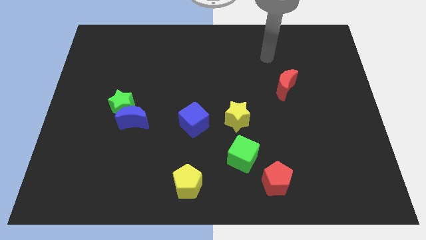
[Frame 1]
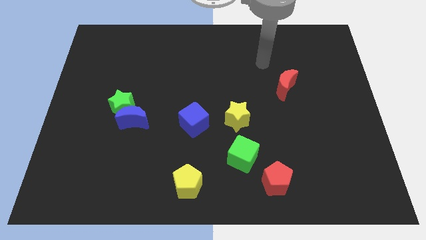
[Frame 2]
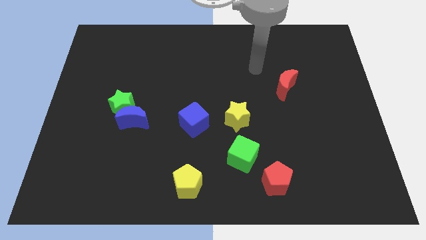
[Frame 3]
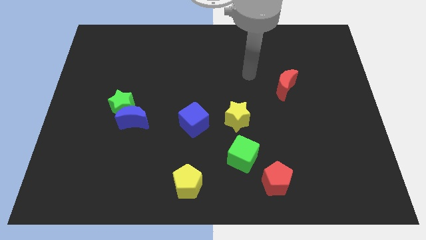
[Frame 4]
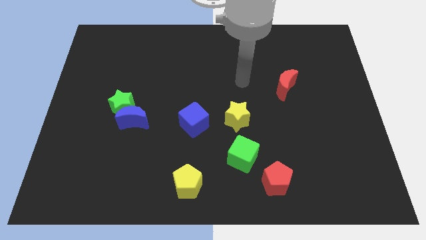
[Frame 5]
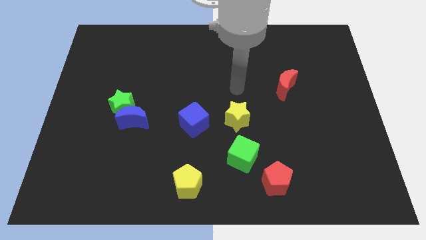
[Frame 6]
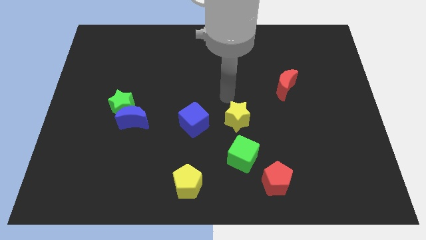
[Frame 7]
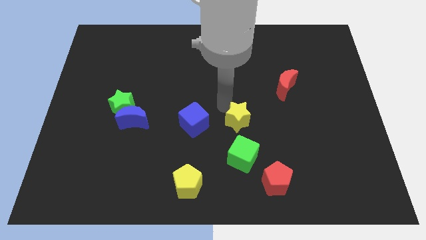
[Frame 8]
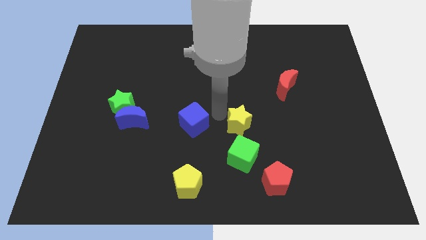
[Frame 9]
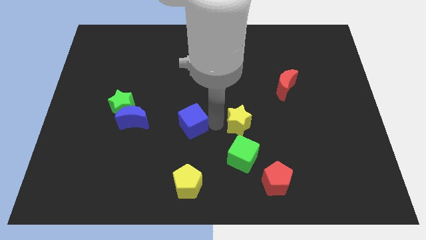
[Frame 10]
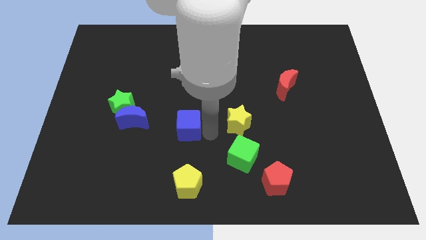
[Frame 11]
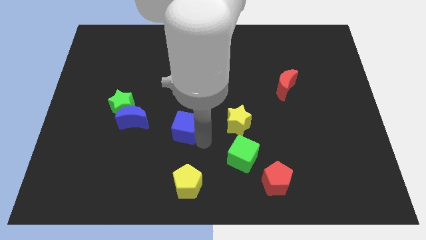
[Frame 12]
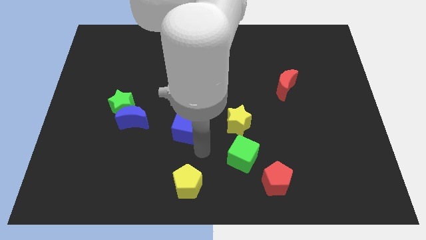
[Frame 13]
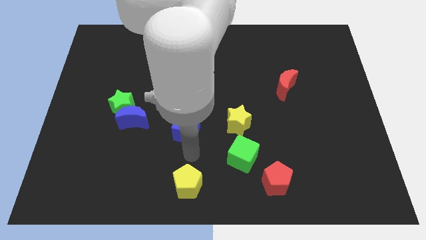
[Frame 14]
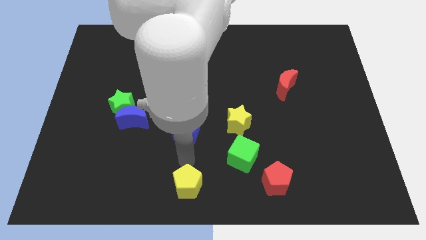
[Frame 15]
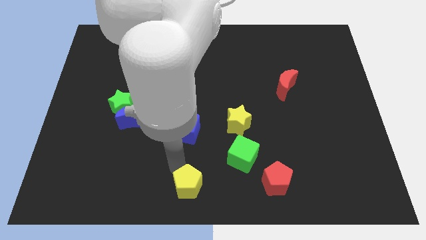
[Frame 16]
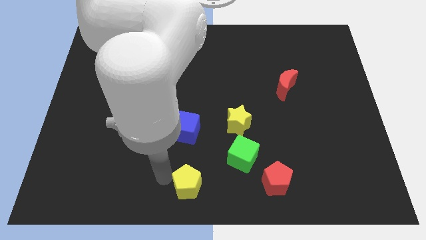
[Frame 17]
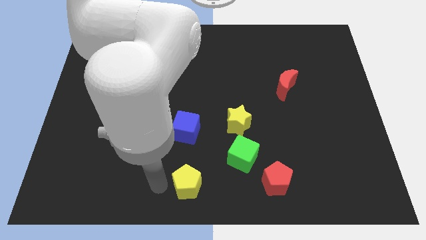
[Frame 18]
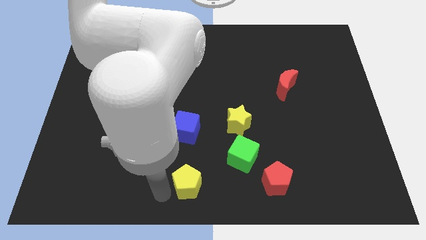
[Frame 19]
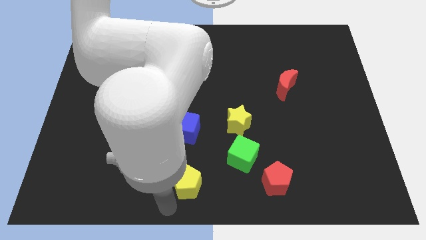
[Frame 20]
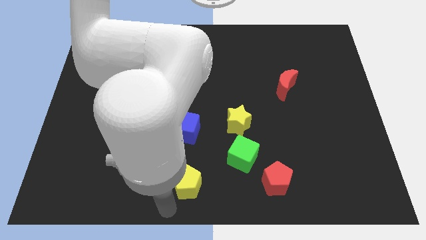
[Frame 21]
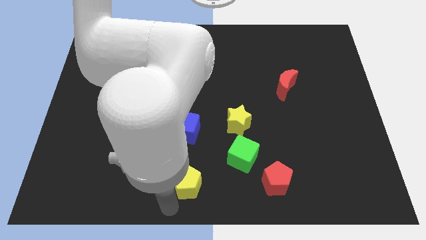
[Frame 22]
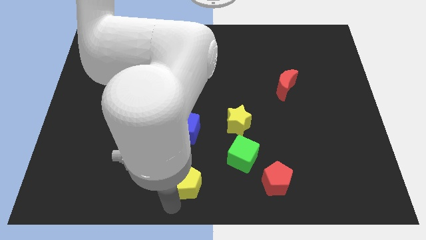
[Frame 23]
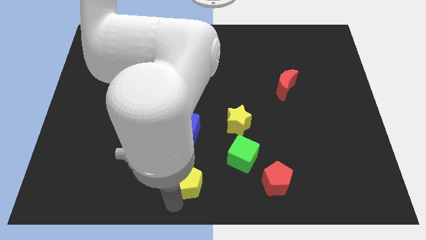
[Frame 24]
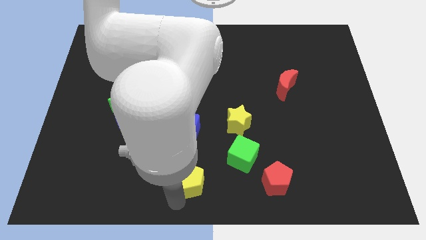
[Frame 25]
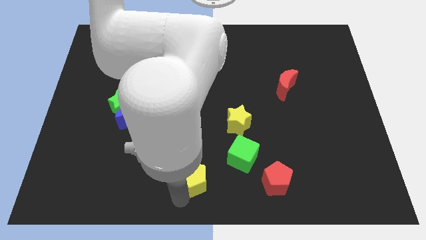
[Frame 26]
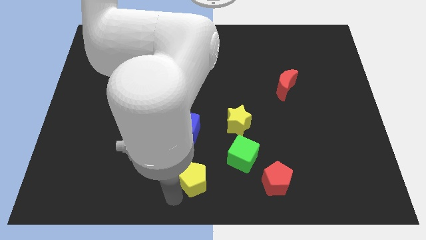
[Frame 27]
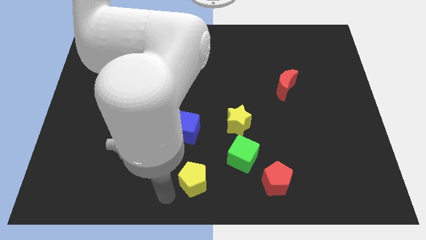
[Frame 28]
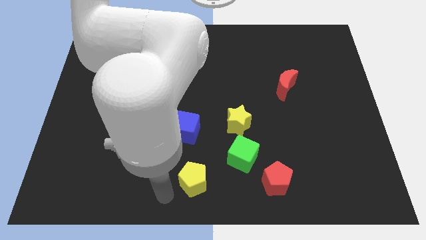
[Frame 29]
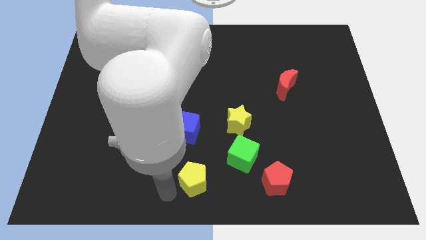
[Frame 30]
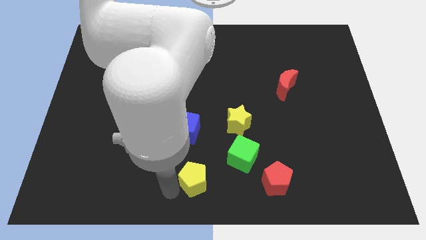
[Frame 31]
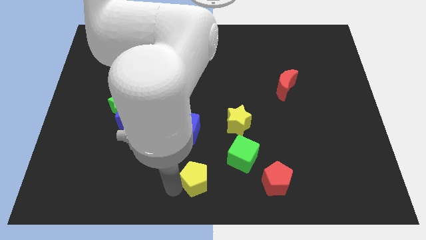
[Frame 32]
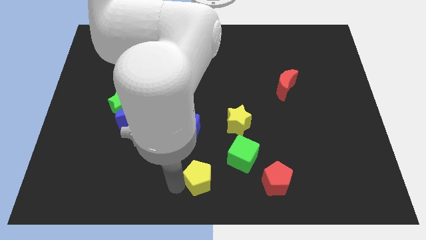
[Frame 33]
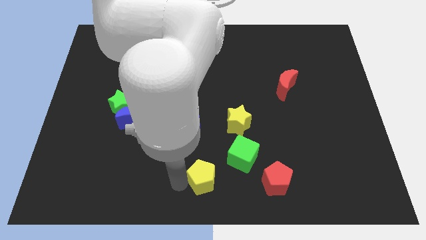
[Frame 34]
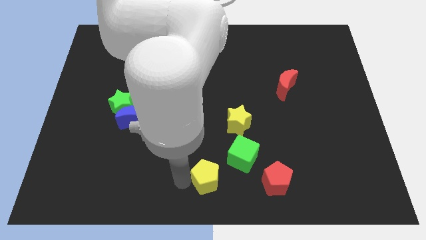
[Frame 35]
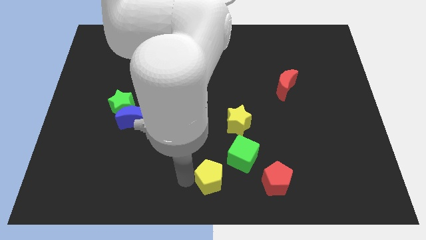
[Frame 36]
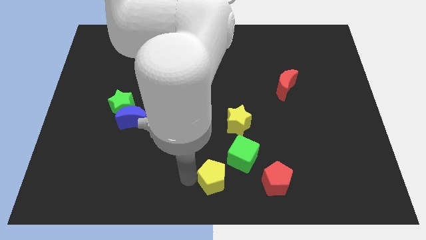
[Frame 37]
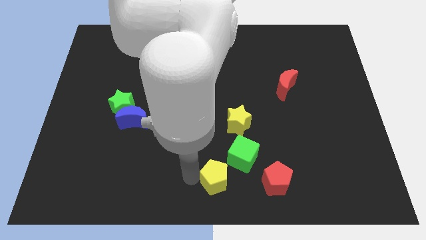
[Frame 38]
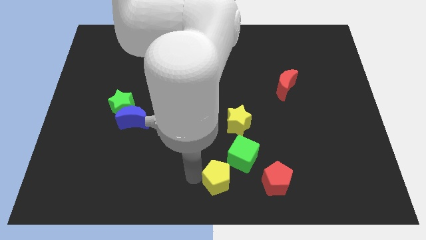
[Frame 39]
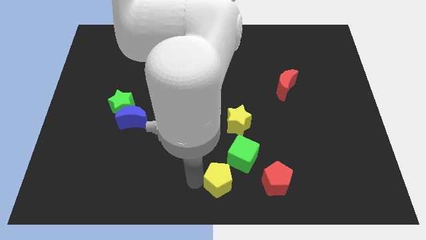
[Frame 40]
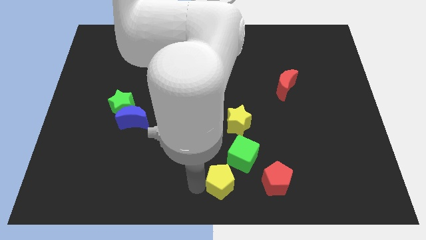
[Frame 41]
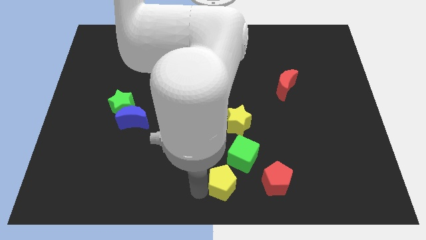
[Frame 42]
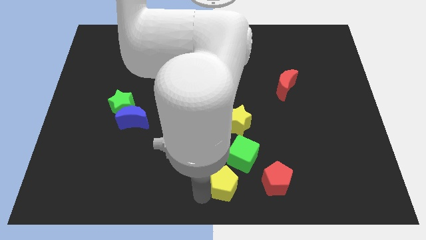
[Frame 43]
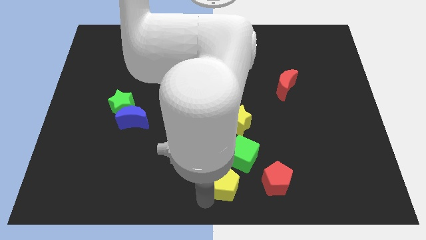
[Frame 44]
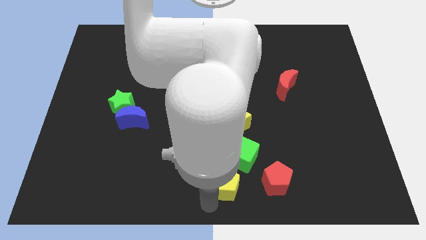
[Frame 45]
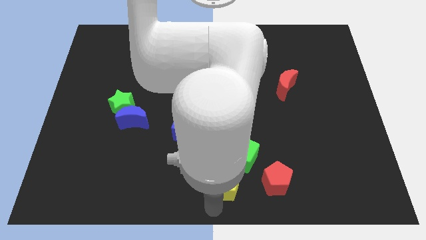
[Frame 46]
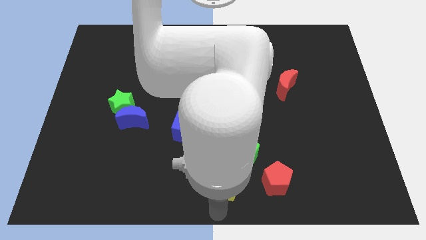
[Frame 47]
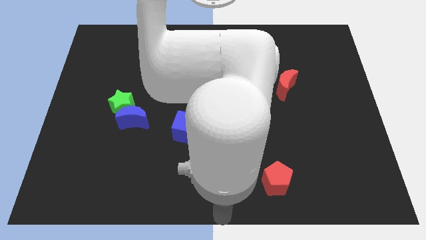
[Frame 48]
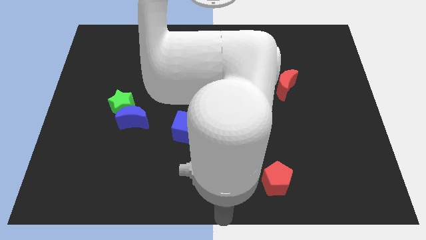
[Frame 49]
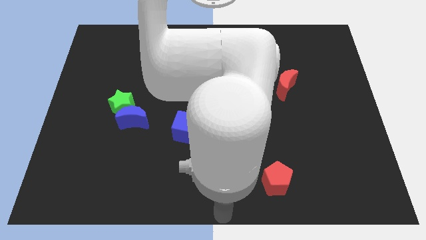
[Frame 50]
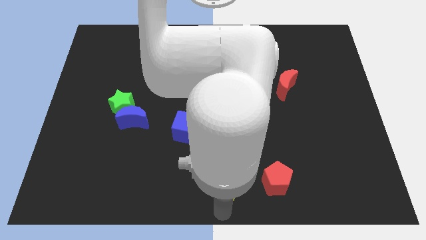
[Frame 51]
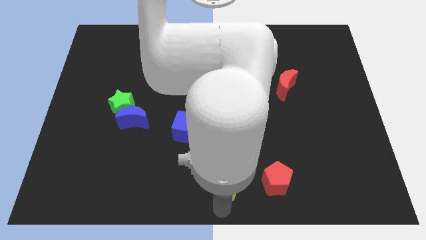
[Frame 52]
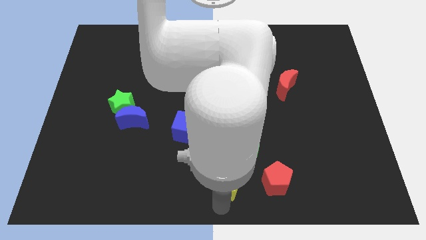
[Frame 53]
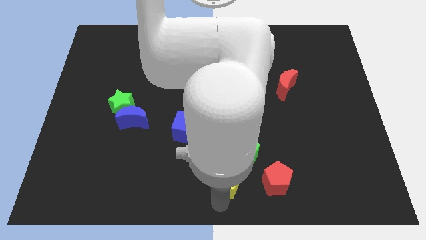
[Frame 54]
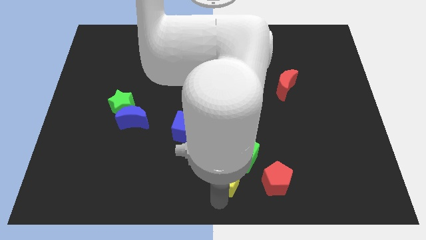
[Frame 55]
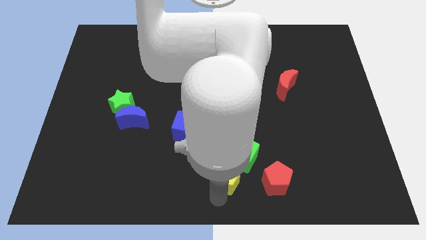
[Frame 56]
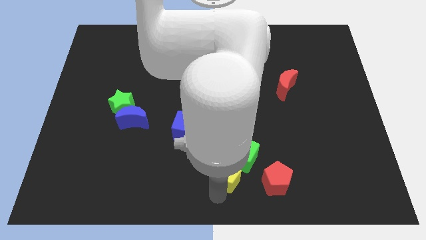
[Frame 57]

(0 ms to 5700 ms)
move the yellow pentagon close to the green cube
